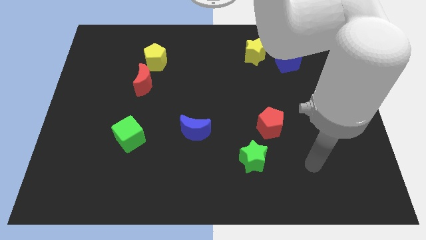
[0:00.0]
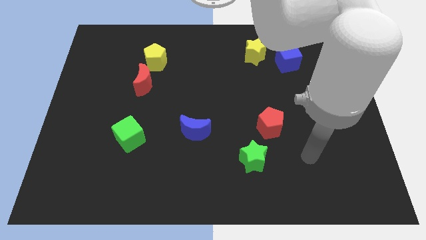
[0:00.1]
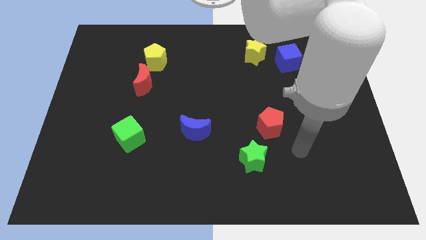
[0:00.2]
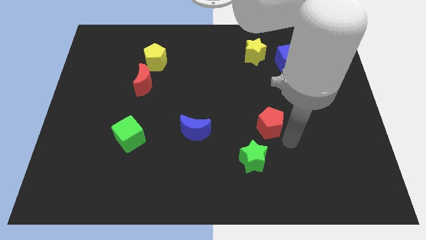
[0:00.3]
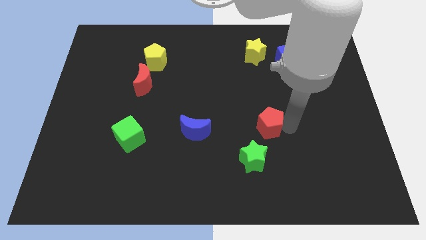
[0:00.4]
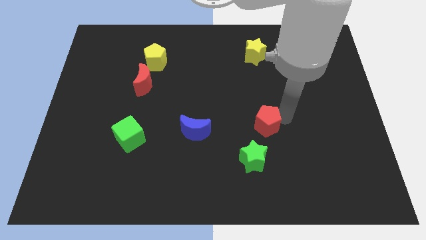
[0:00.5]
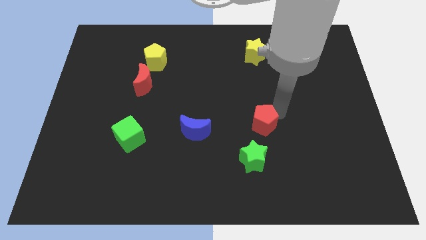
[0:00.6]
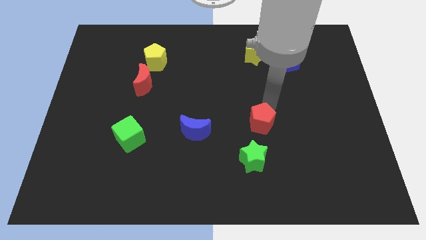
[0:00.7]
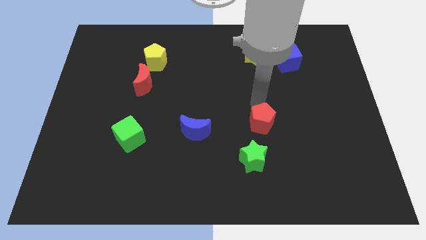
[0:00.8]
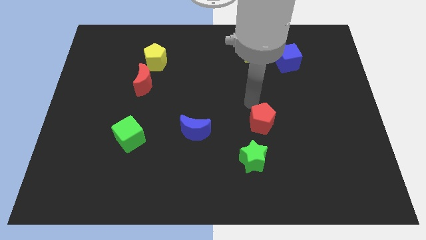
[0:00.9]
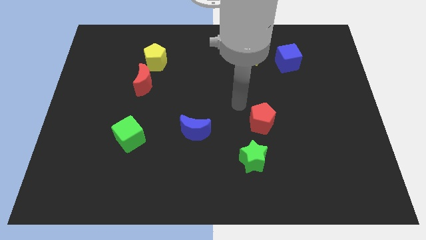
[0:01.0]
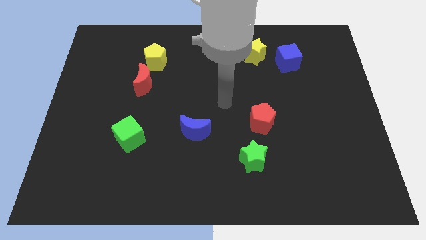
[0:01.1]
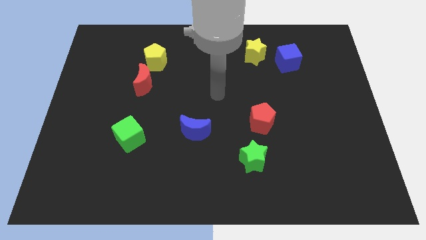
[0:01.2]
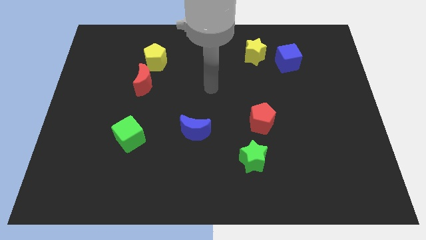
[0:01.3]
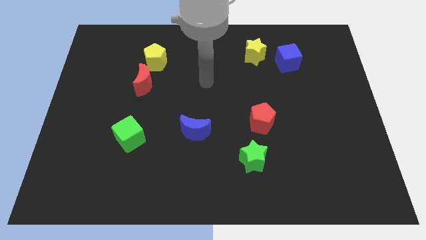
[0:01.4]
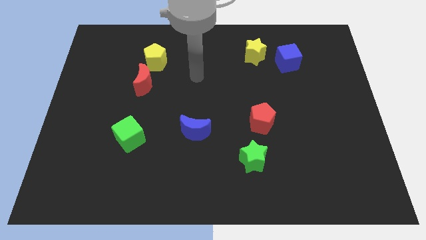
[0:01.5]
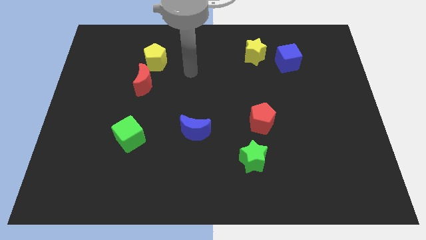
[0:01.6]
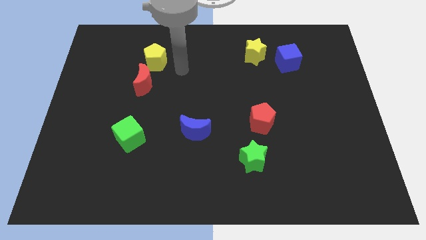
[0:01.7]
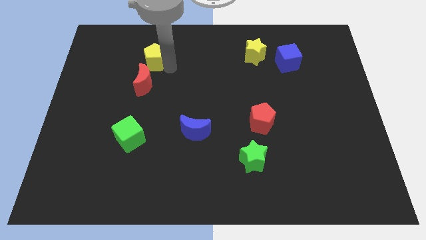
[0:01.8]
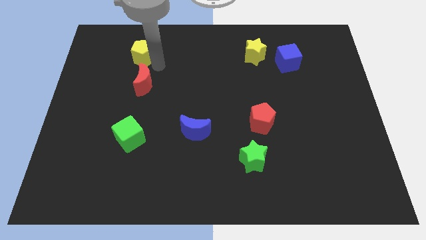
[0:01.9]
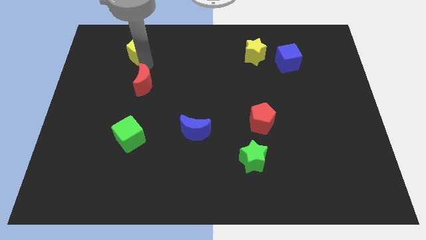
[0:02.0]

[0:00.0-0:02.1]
pull the red moon apart from the yellow pentagon

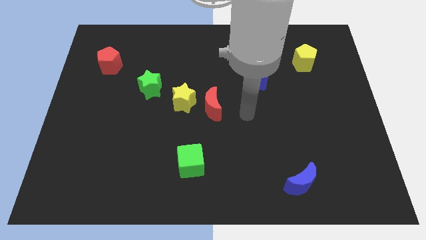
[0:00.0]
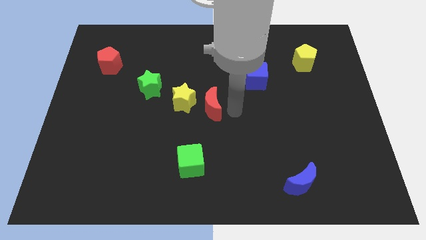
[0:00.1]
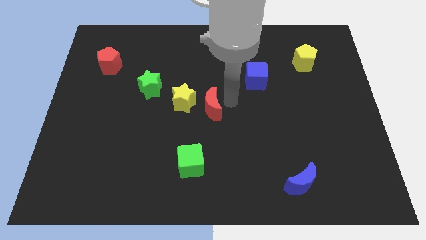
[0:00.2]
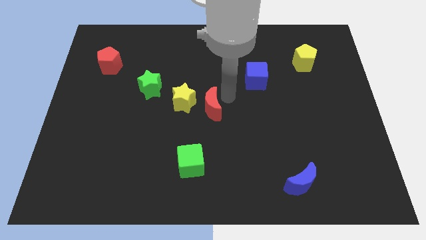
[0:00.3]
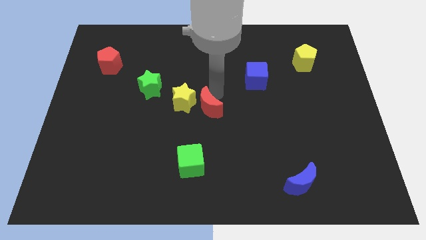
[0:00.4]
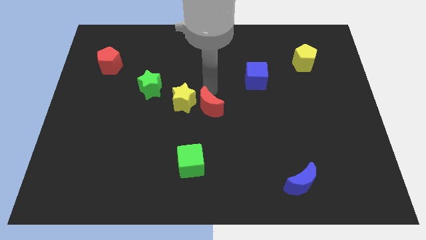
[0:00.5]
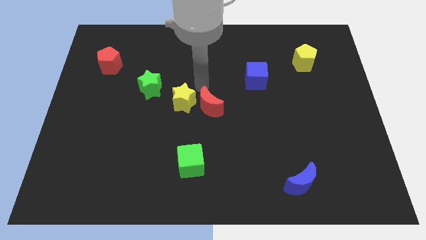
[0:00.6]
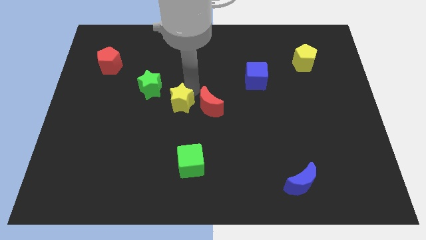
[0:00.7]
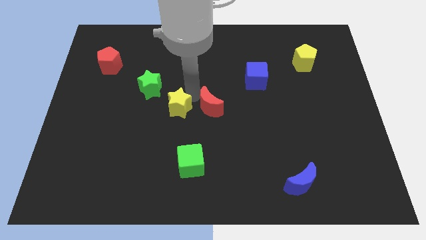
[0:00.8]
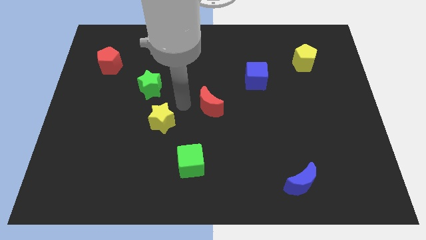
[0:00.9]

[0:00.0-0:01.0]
separate the red moon from the yellow star

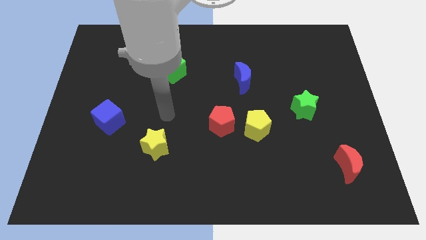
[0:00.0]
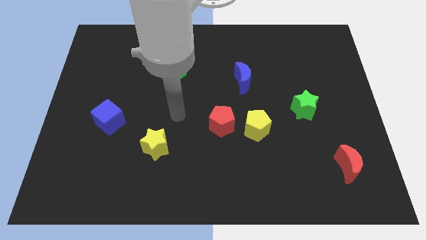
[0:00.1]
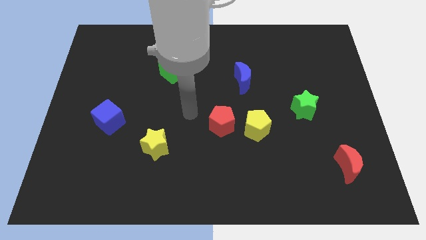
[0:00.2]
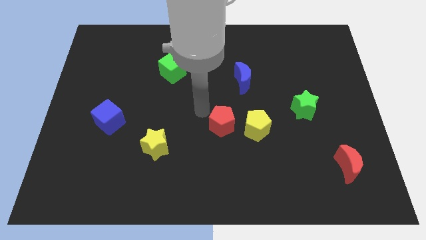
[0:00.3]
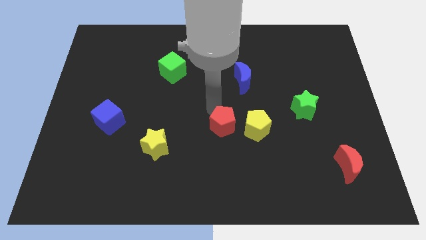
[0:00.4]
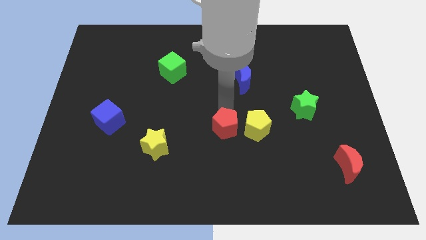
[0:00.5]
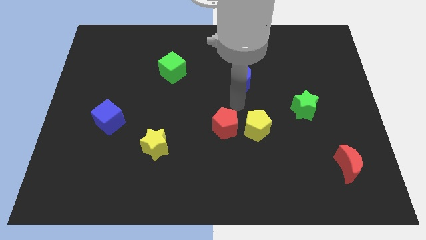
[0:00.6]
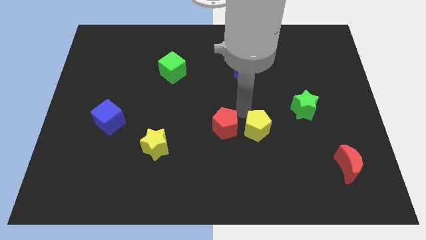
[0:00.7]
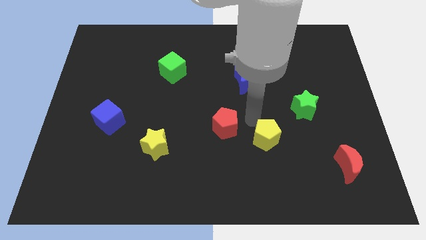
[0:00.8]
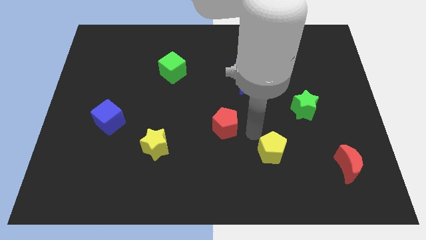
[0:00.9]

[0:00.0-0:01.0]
separate the red pentagon from the yellow pentagon

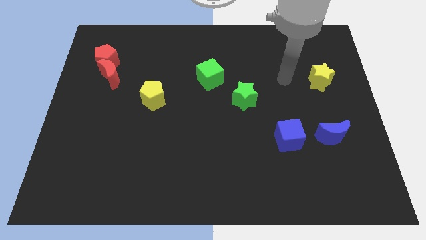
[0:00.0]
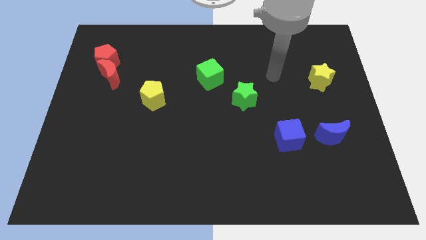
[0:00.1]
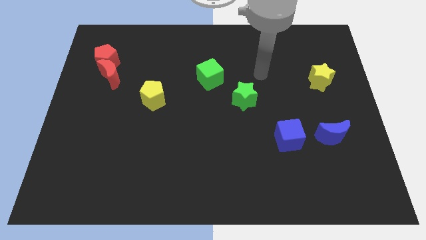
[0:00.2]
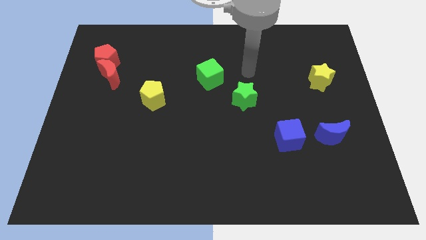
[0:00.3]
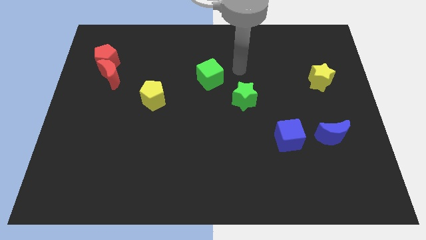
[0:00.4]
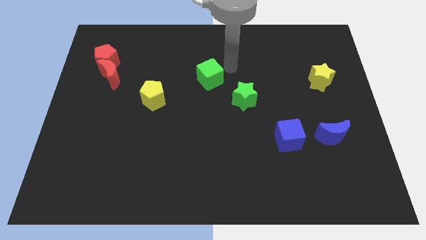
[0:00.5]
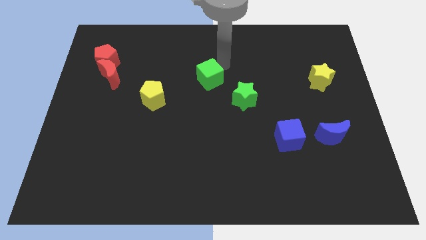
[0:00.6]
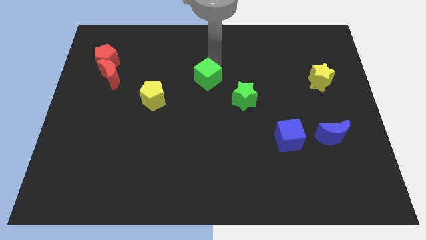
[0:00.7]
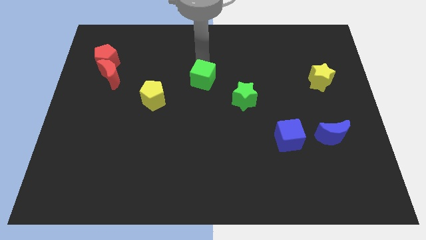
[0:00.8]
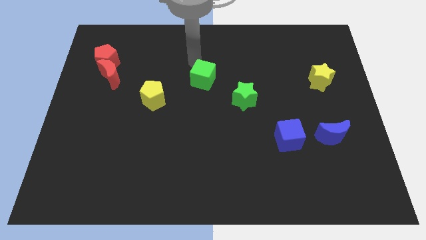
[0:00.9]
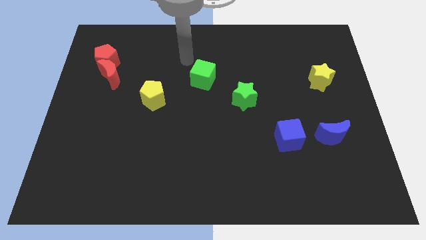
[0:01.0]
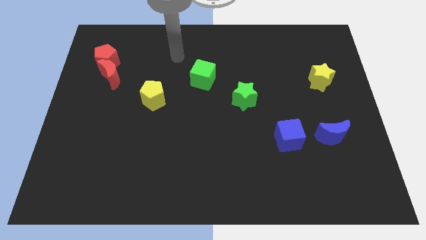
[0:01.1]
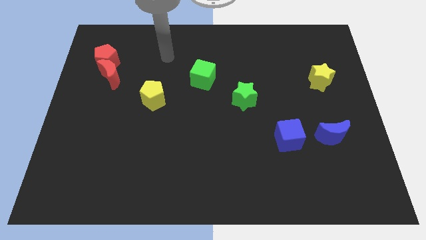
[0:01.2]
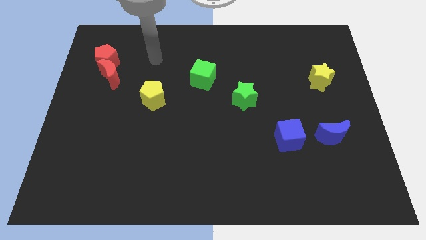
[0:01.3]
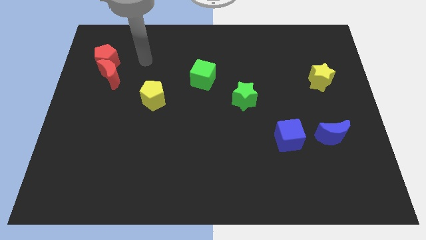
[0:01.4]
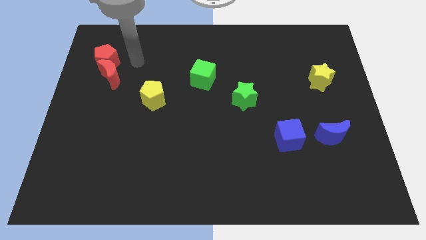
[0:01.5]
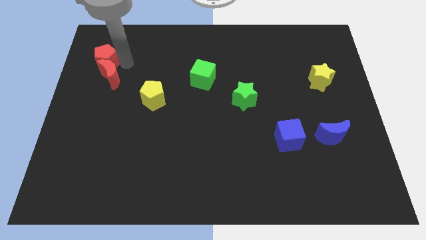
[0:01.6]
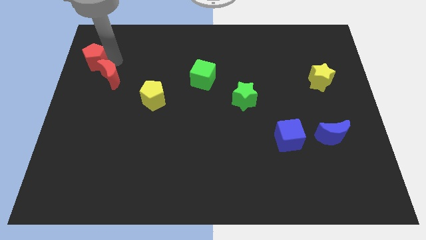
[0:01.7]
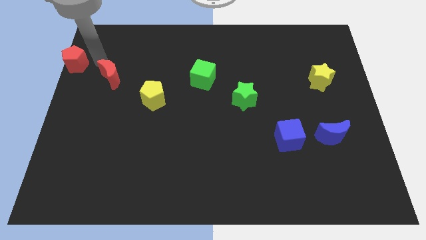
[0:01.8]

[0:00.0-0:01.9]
separate the red moon from the red pentagon

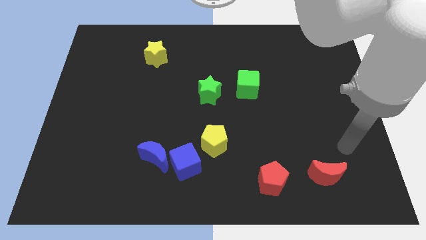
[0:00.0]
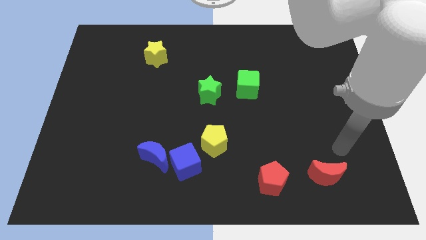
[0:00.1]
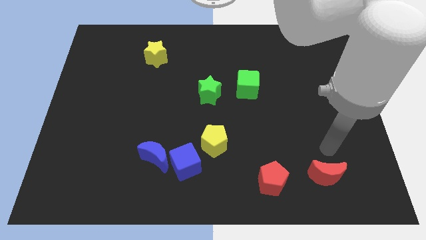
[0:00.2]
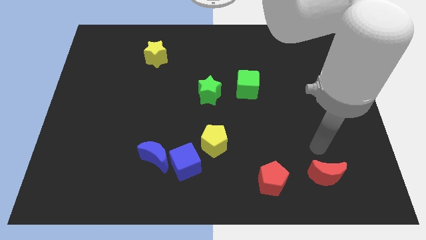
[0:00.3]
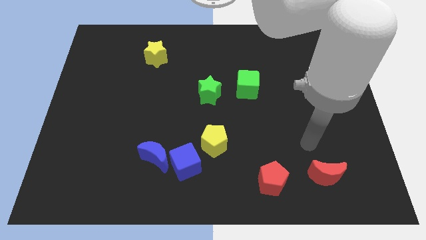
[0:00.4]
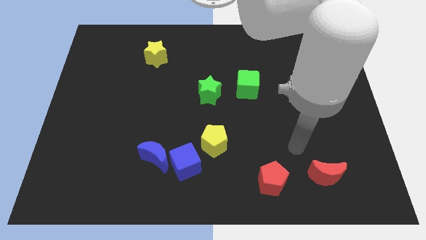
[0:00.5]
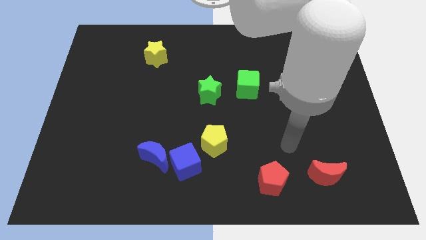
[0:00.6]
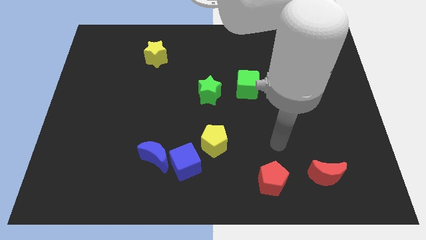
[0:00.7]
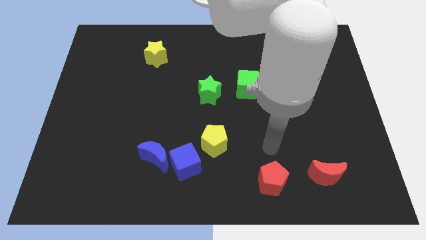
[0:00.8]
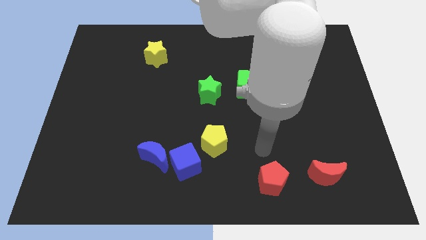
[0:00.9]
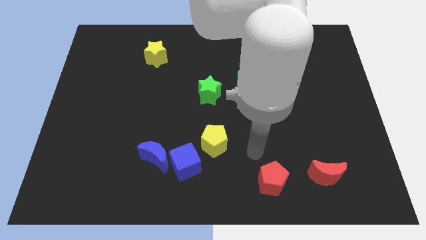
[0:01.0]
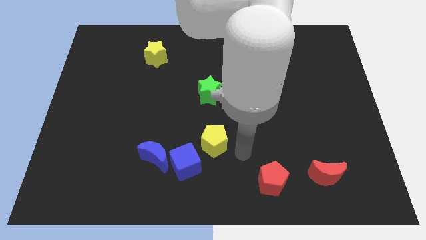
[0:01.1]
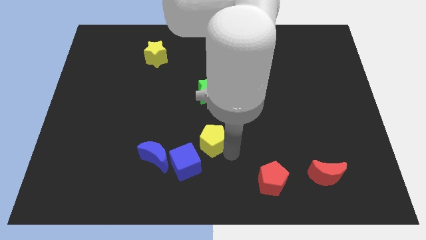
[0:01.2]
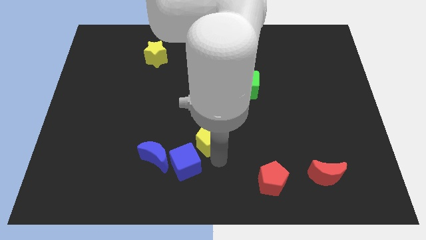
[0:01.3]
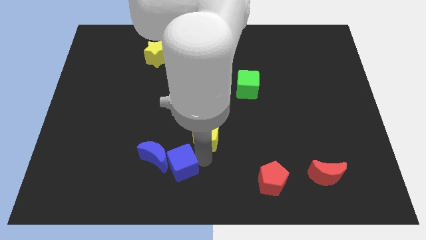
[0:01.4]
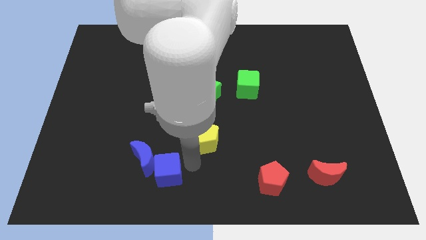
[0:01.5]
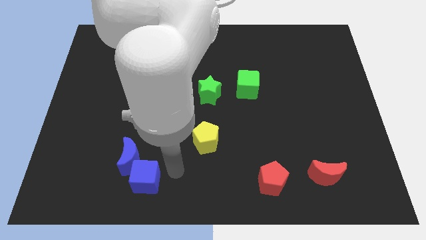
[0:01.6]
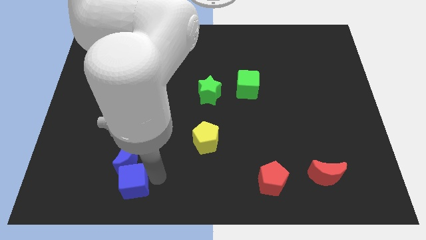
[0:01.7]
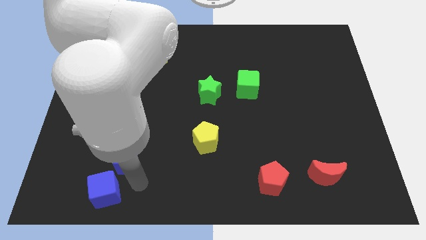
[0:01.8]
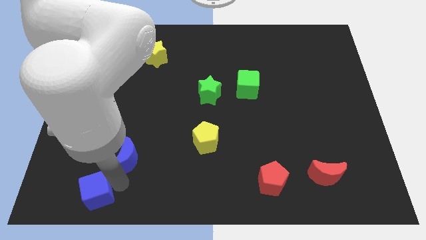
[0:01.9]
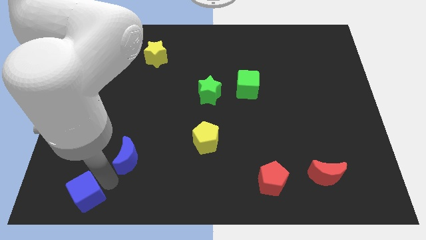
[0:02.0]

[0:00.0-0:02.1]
separate the blue moon from the blue cube

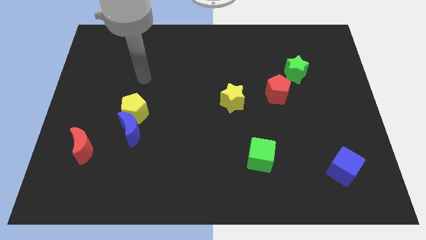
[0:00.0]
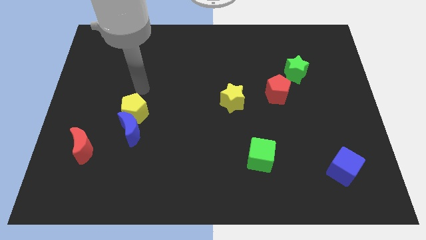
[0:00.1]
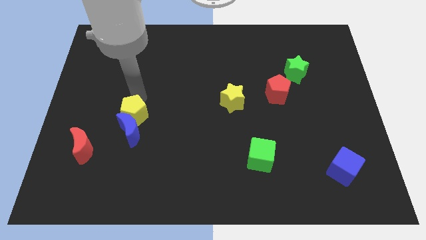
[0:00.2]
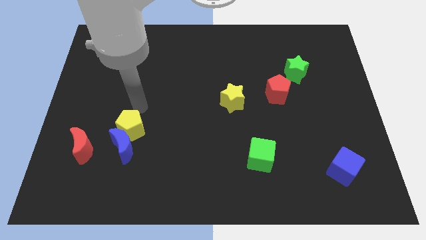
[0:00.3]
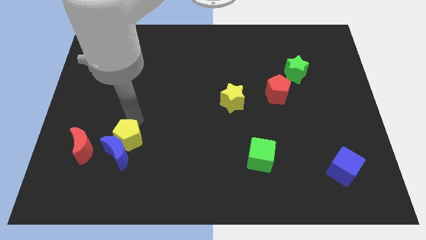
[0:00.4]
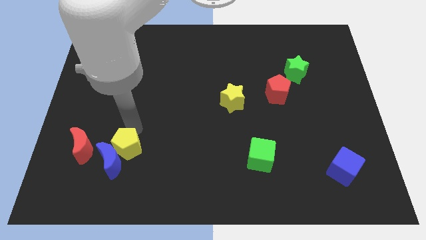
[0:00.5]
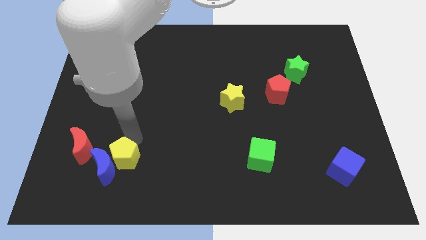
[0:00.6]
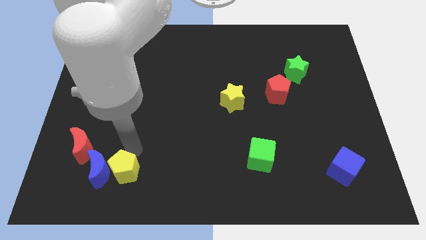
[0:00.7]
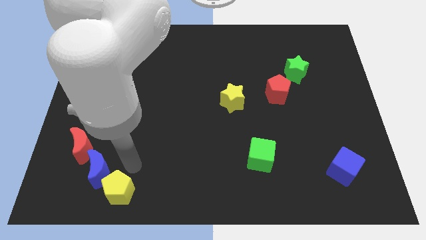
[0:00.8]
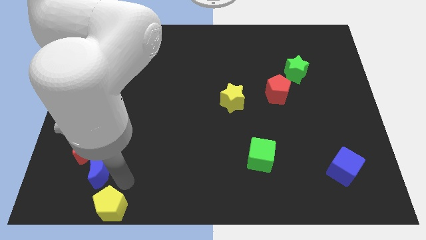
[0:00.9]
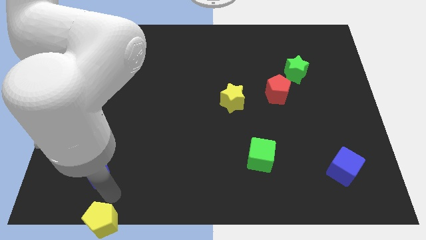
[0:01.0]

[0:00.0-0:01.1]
move the blue moon away from the yellow pentagon

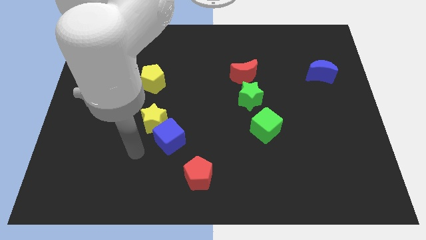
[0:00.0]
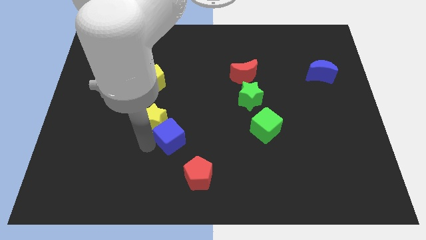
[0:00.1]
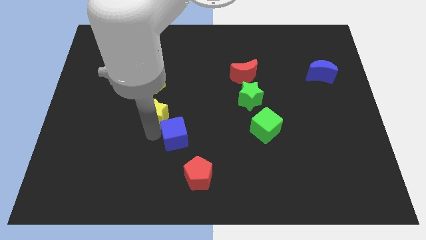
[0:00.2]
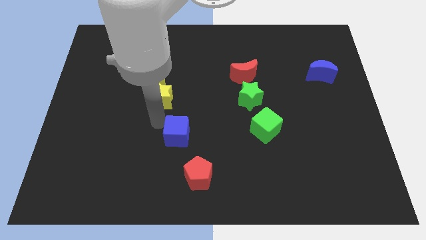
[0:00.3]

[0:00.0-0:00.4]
separate the blue cube from the yellow star
